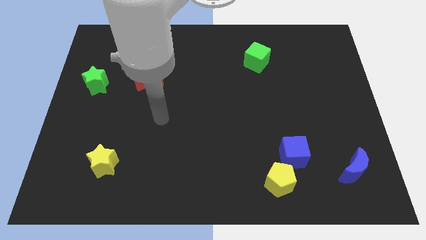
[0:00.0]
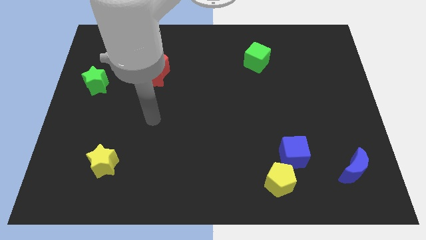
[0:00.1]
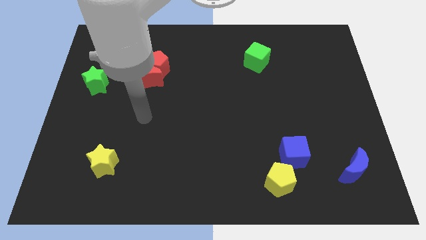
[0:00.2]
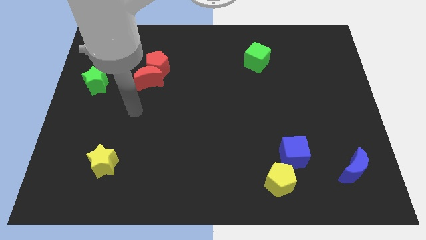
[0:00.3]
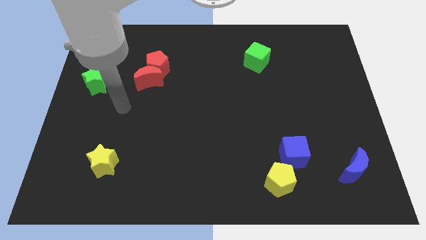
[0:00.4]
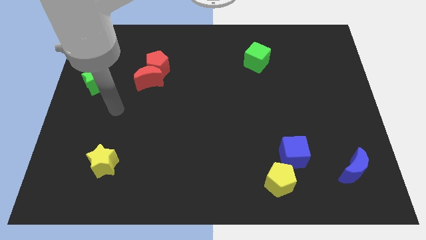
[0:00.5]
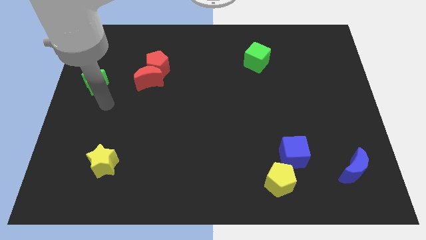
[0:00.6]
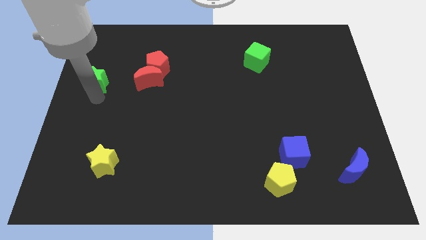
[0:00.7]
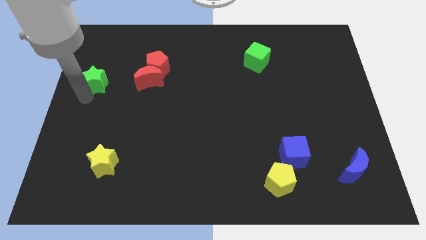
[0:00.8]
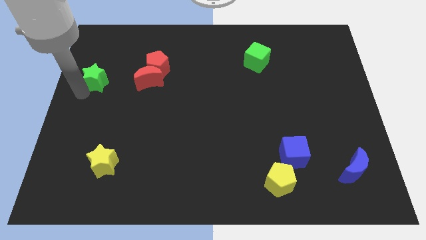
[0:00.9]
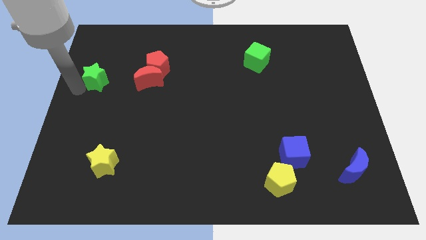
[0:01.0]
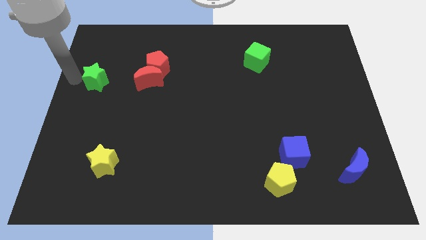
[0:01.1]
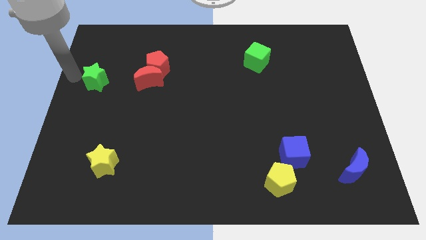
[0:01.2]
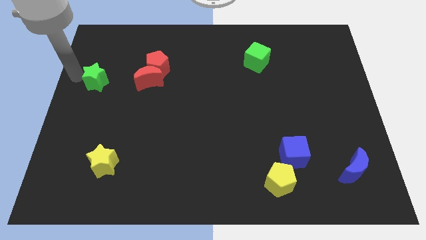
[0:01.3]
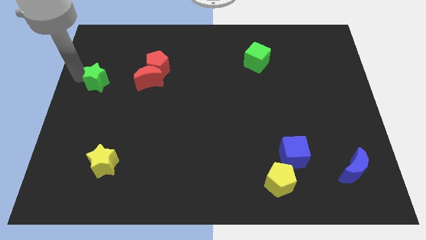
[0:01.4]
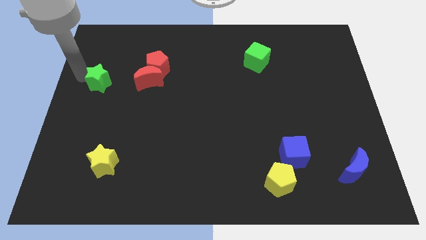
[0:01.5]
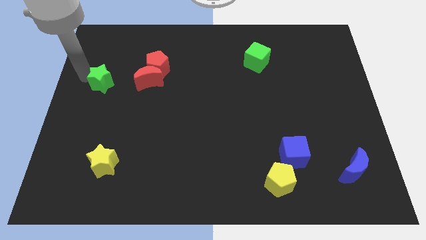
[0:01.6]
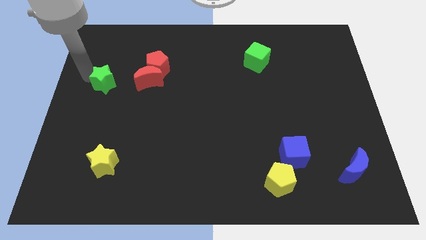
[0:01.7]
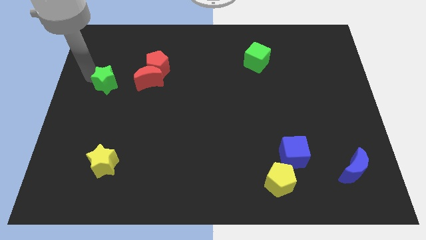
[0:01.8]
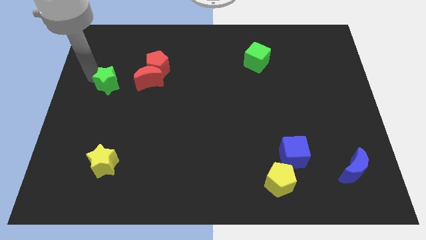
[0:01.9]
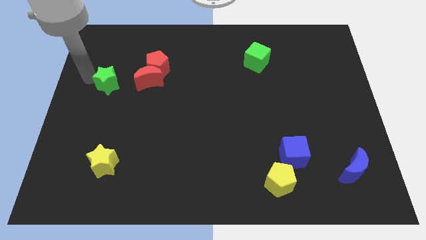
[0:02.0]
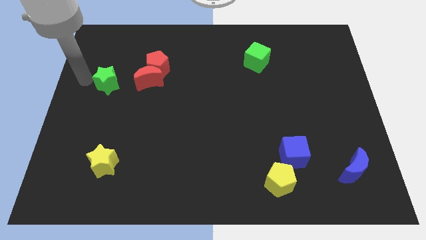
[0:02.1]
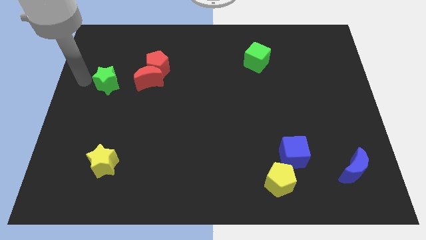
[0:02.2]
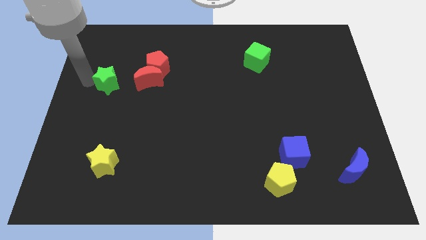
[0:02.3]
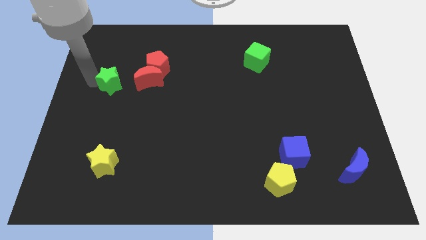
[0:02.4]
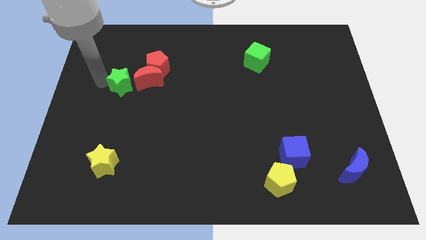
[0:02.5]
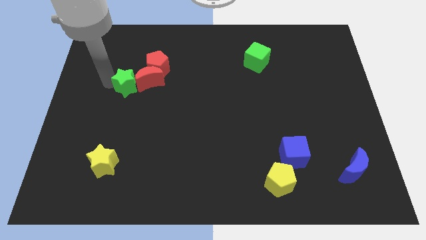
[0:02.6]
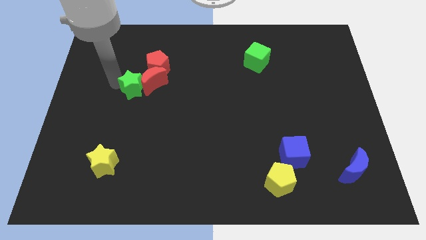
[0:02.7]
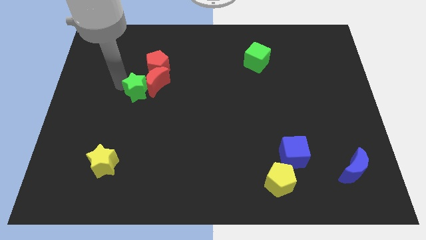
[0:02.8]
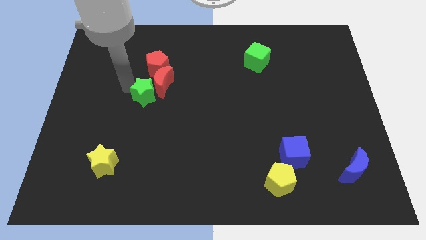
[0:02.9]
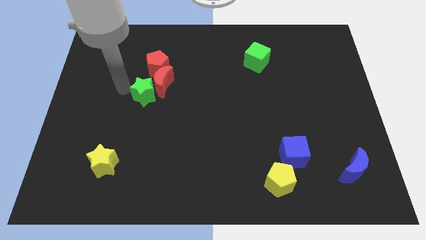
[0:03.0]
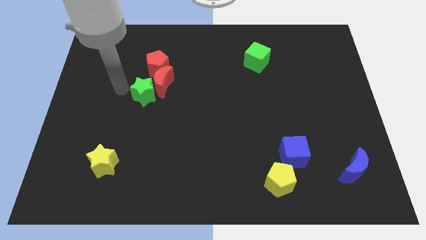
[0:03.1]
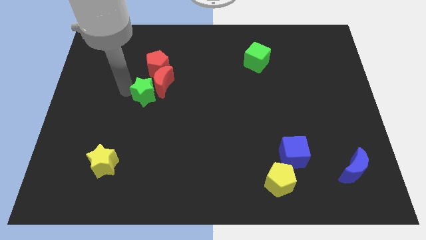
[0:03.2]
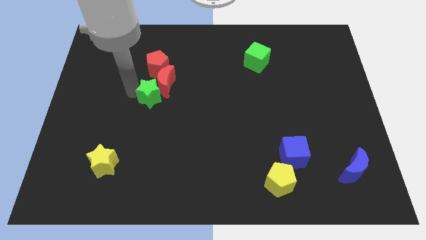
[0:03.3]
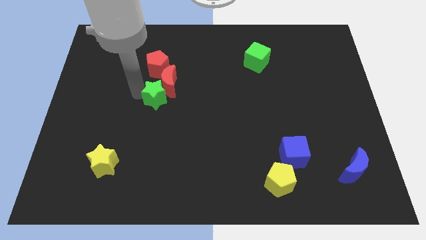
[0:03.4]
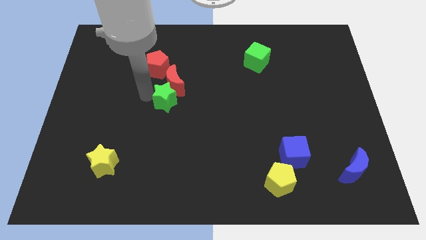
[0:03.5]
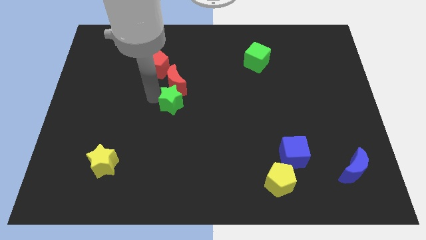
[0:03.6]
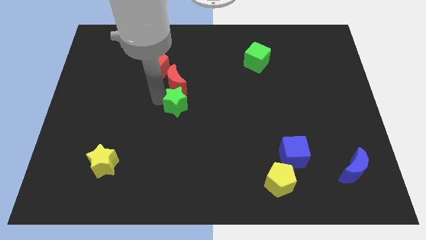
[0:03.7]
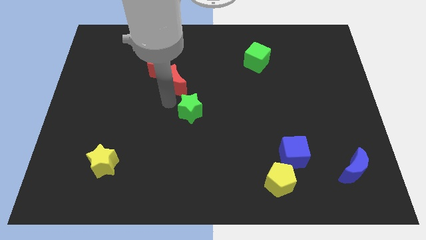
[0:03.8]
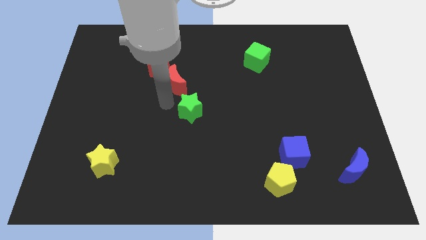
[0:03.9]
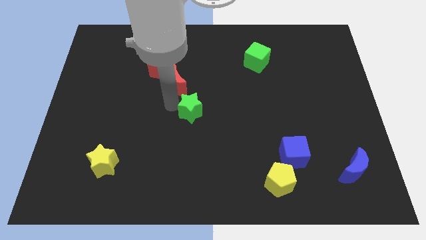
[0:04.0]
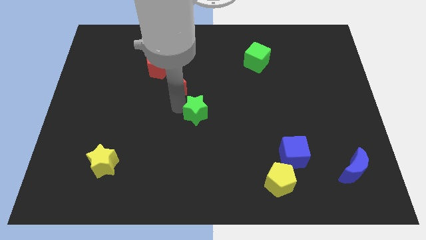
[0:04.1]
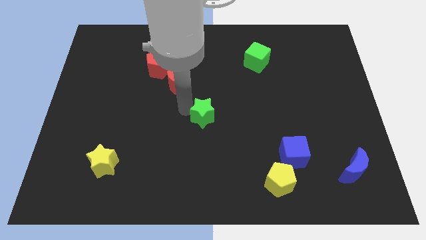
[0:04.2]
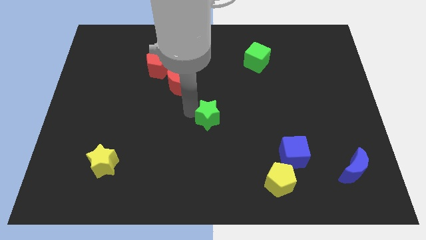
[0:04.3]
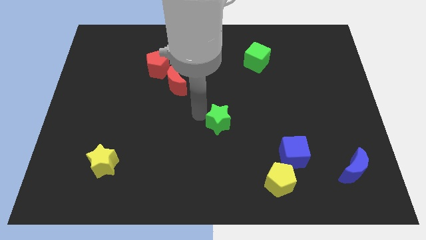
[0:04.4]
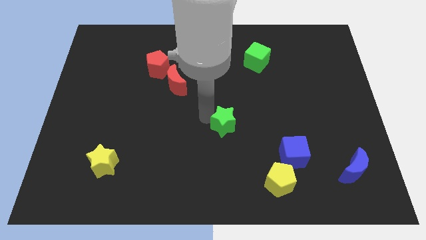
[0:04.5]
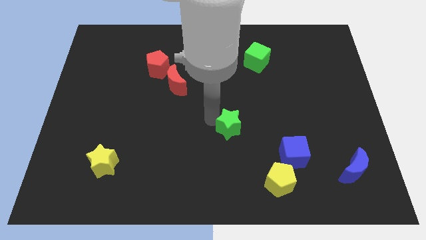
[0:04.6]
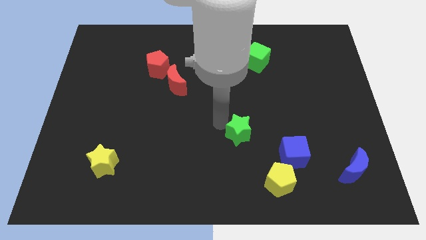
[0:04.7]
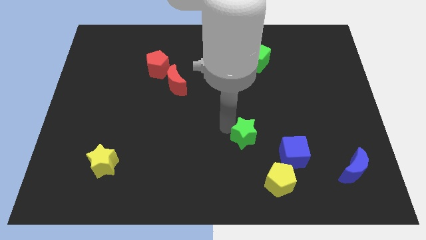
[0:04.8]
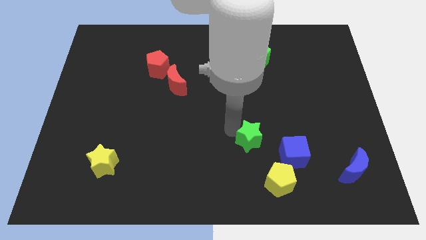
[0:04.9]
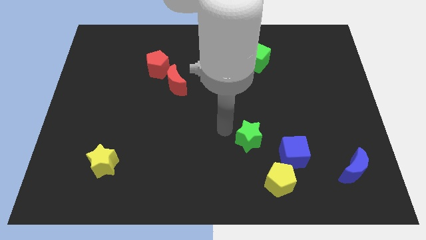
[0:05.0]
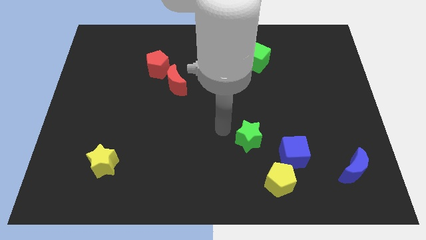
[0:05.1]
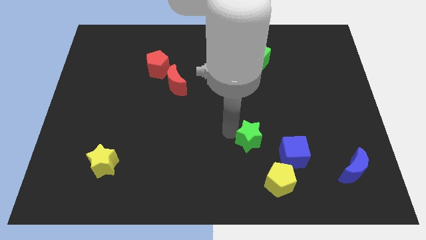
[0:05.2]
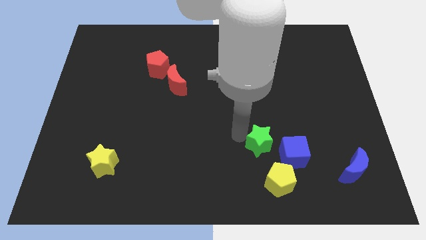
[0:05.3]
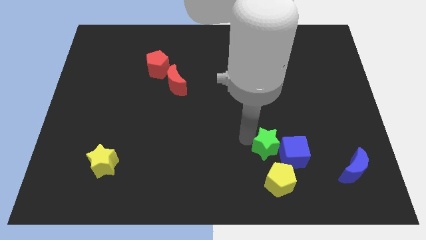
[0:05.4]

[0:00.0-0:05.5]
put the green star towards the blue cube

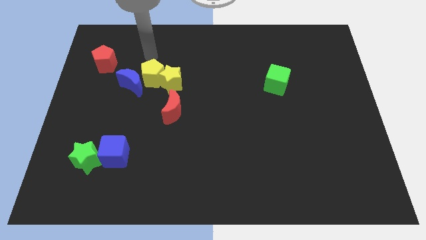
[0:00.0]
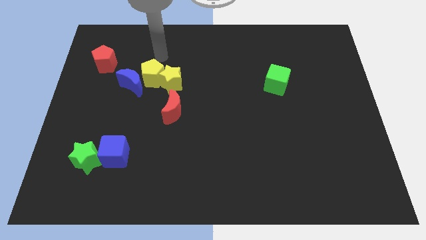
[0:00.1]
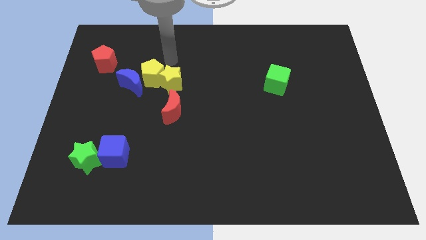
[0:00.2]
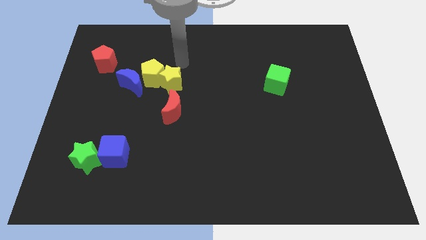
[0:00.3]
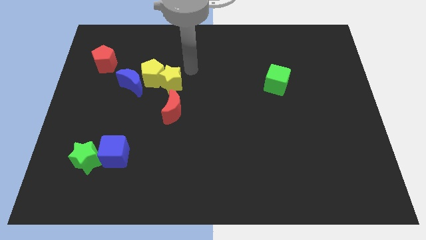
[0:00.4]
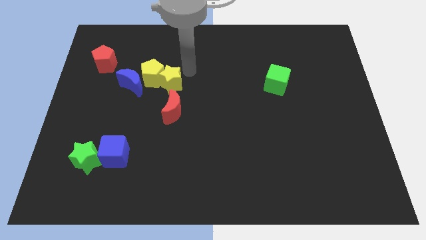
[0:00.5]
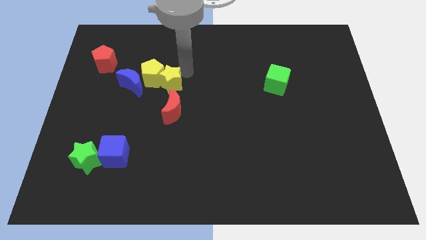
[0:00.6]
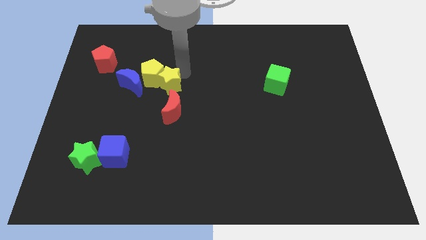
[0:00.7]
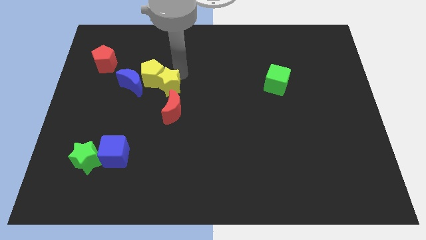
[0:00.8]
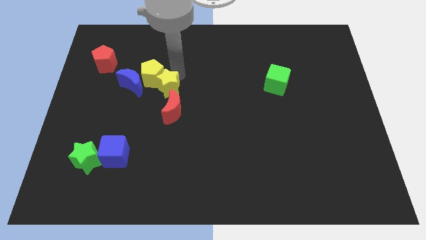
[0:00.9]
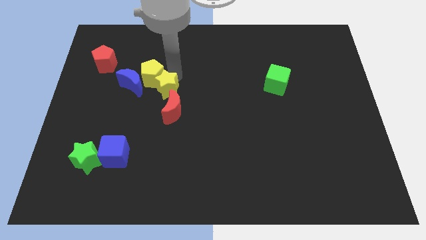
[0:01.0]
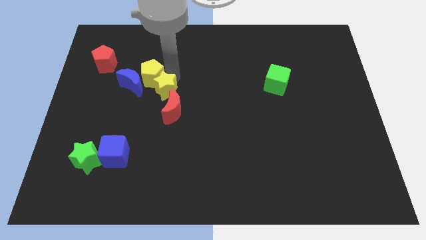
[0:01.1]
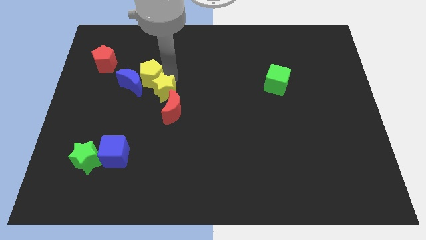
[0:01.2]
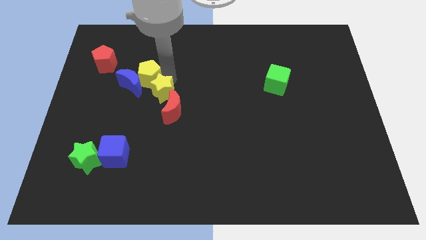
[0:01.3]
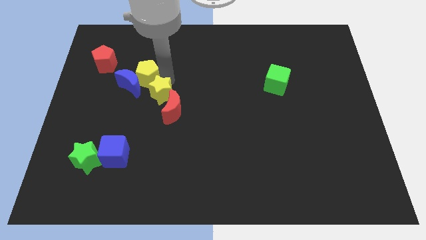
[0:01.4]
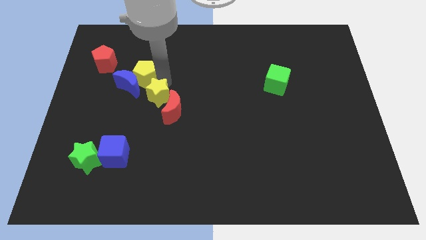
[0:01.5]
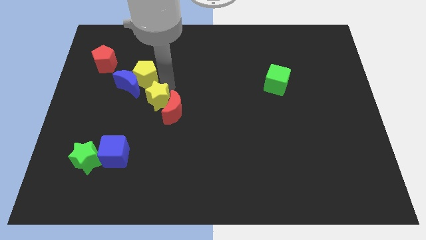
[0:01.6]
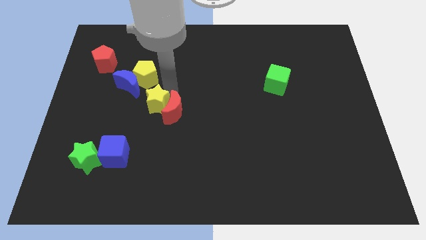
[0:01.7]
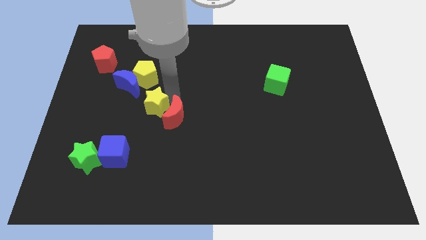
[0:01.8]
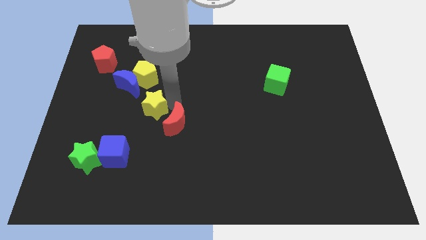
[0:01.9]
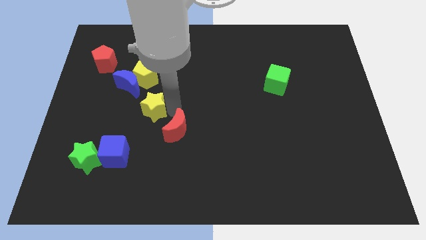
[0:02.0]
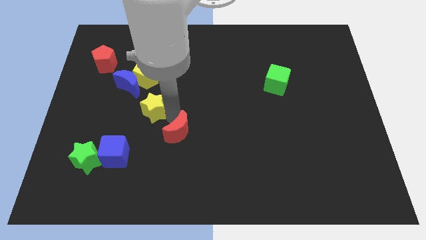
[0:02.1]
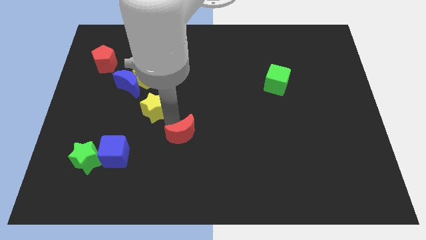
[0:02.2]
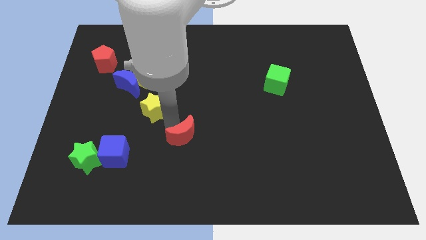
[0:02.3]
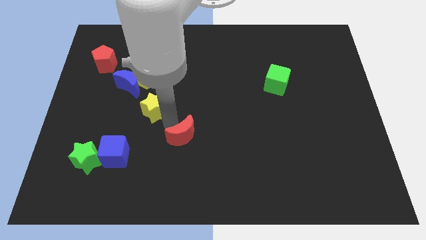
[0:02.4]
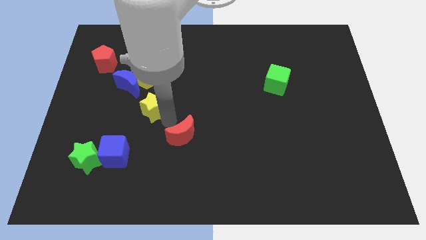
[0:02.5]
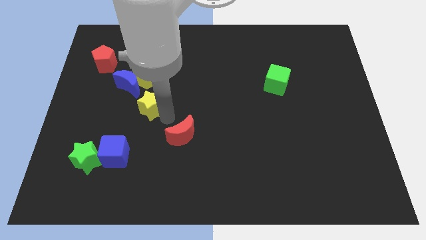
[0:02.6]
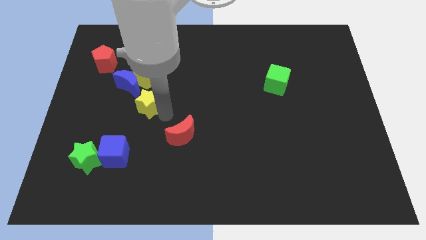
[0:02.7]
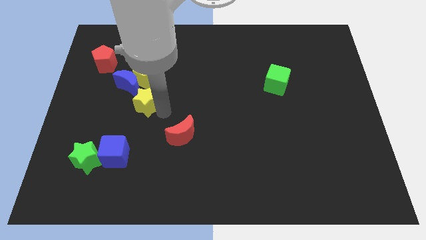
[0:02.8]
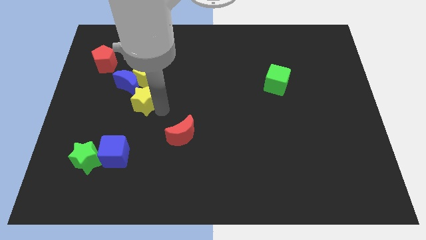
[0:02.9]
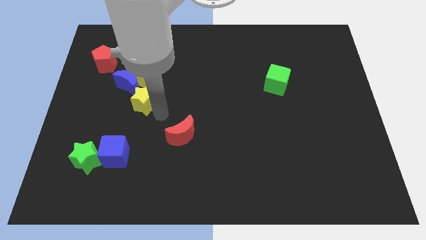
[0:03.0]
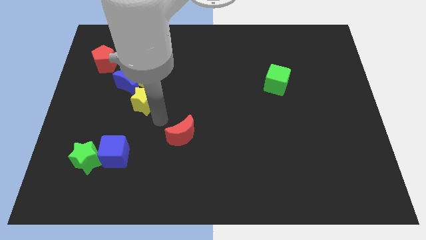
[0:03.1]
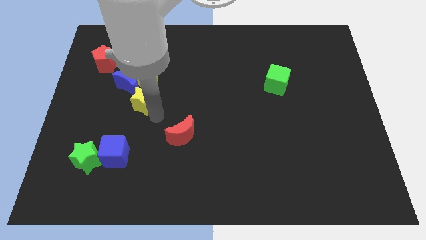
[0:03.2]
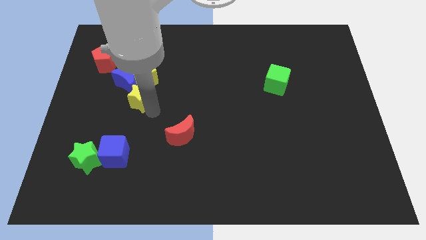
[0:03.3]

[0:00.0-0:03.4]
slide the yellow star to the blue moon
